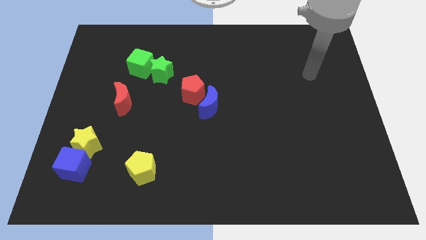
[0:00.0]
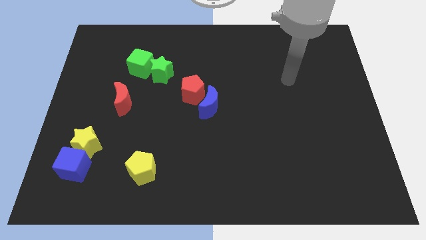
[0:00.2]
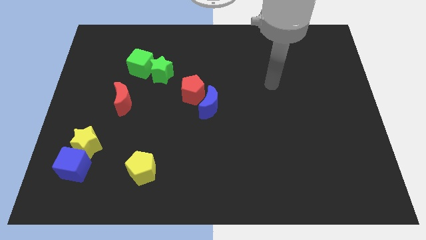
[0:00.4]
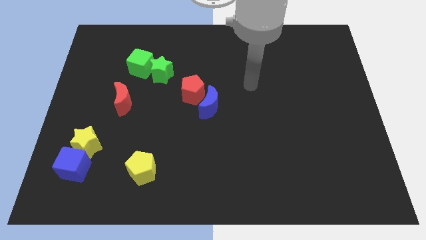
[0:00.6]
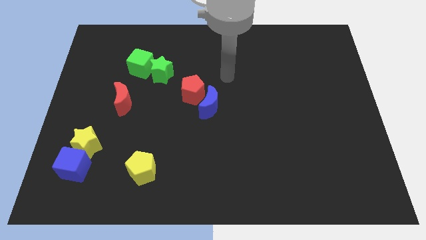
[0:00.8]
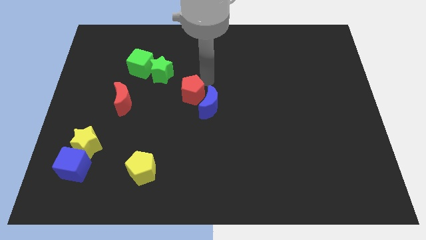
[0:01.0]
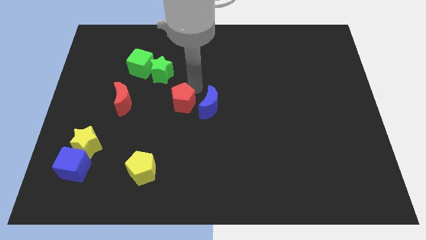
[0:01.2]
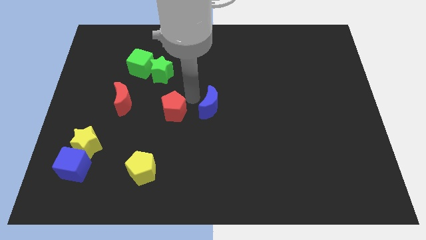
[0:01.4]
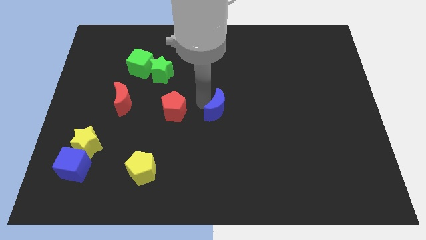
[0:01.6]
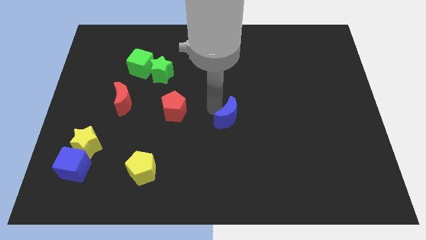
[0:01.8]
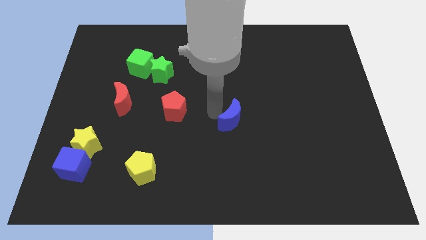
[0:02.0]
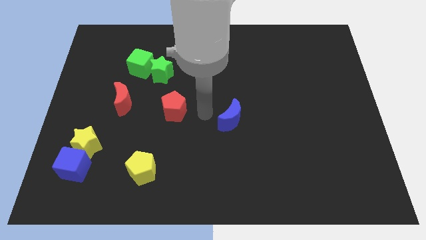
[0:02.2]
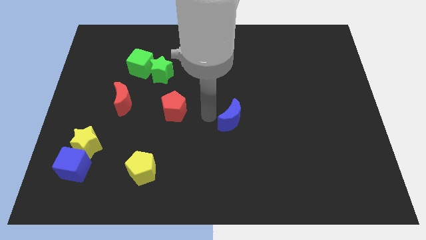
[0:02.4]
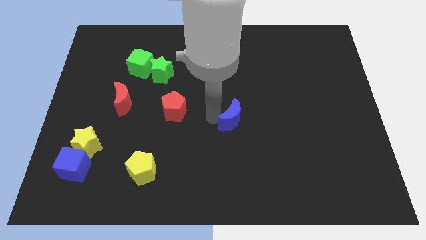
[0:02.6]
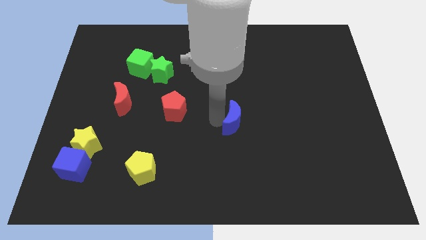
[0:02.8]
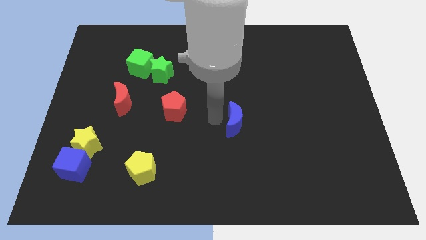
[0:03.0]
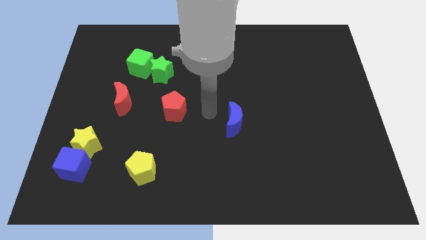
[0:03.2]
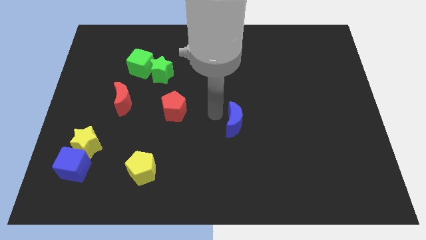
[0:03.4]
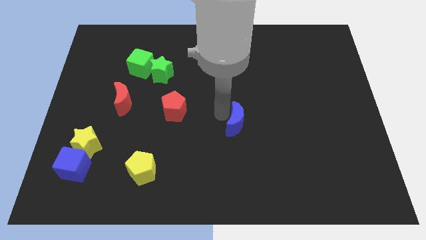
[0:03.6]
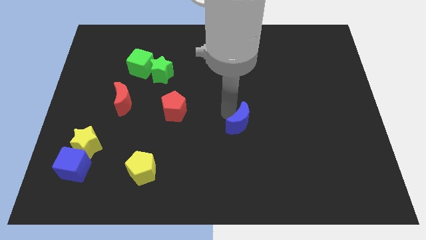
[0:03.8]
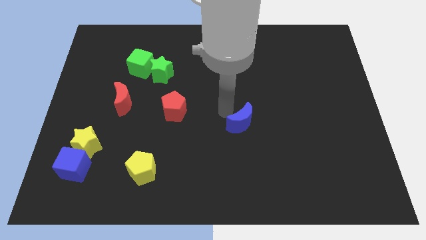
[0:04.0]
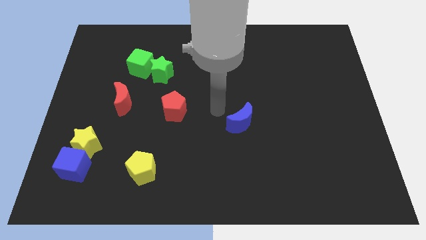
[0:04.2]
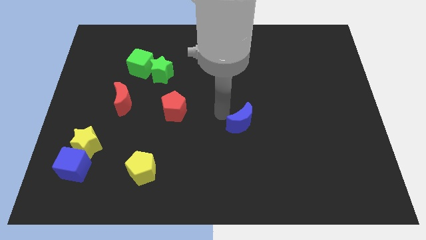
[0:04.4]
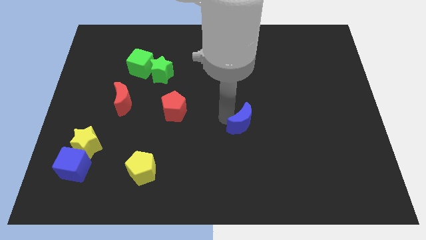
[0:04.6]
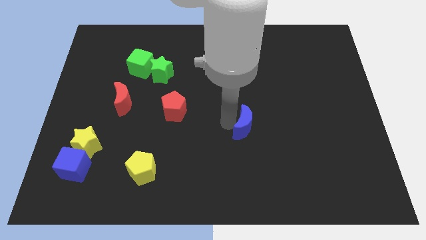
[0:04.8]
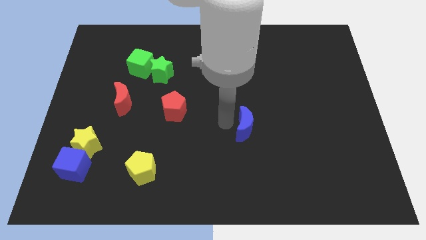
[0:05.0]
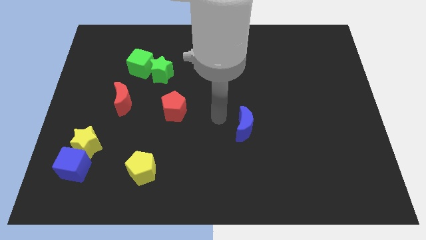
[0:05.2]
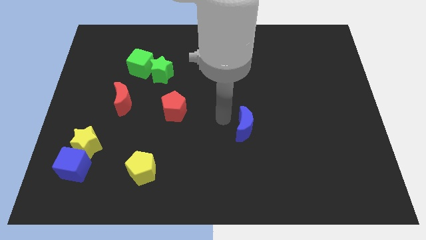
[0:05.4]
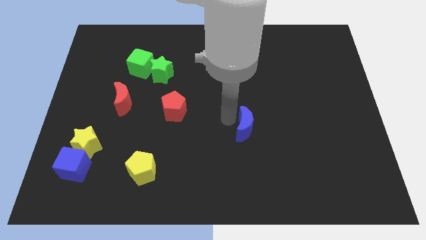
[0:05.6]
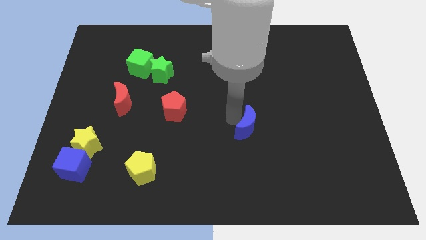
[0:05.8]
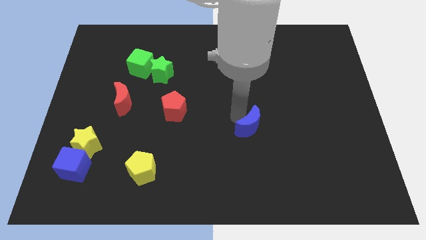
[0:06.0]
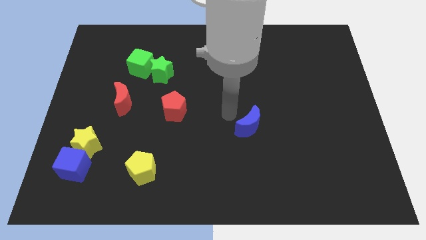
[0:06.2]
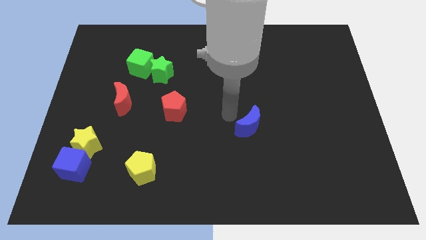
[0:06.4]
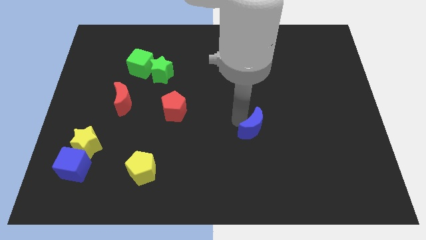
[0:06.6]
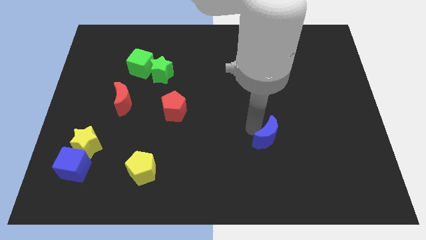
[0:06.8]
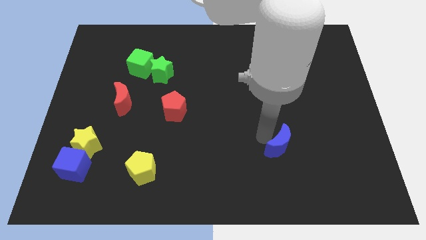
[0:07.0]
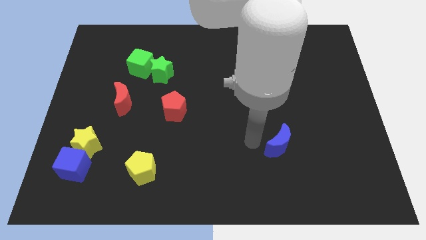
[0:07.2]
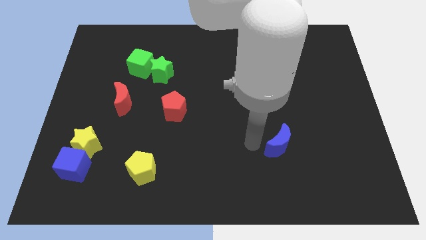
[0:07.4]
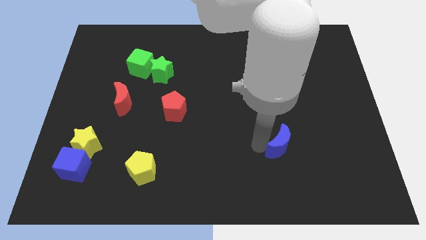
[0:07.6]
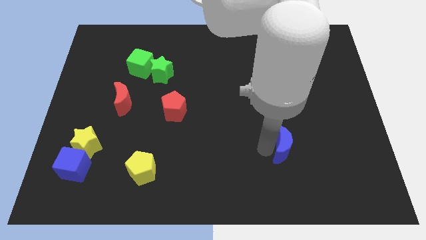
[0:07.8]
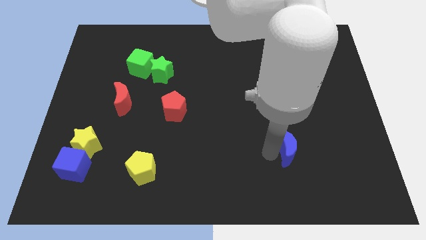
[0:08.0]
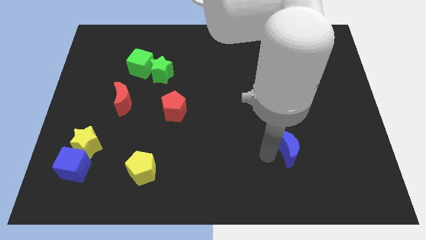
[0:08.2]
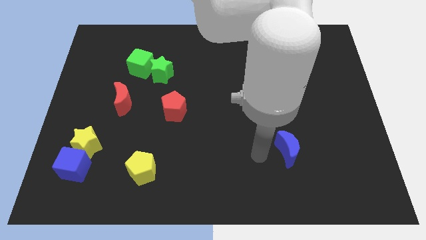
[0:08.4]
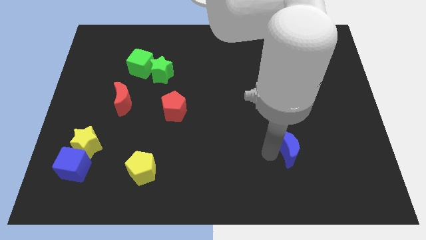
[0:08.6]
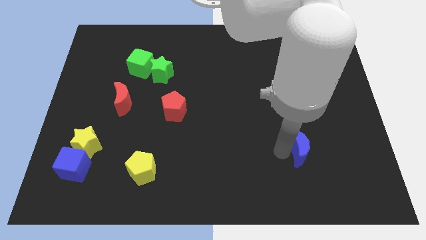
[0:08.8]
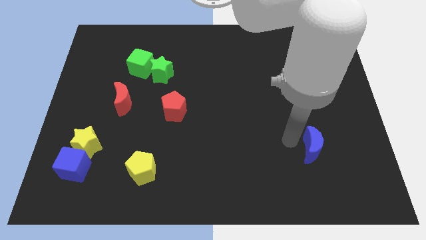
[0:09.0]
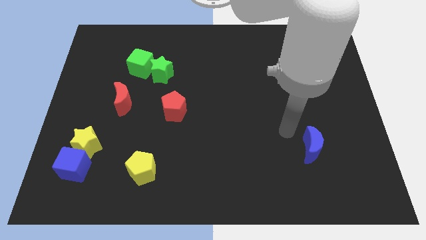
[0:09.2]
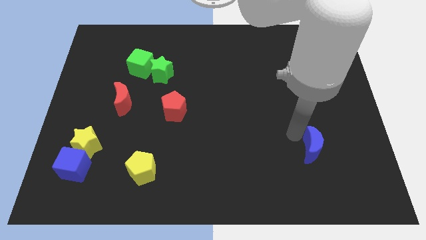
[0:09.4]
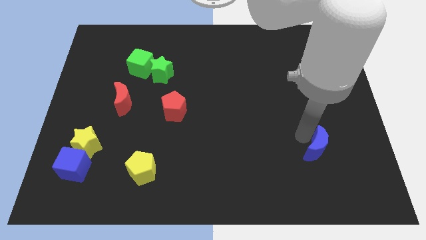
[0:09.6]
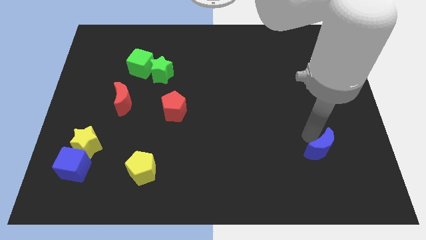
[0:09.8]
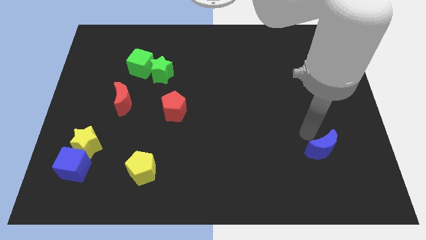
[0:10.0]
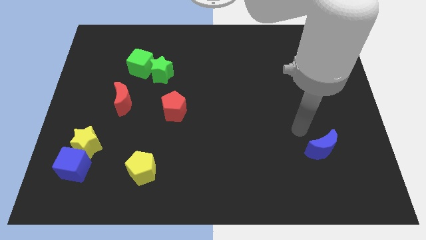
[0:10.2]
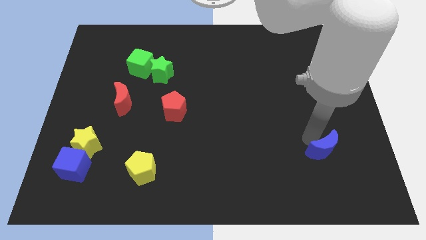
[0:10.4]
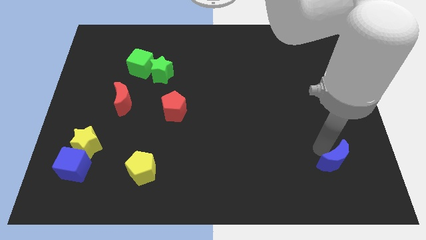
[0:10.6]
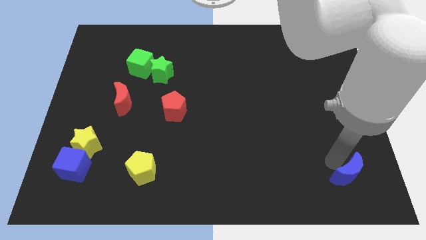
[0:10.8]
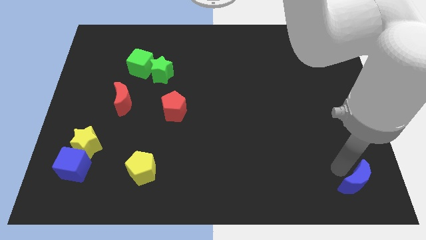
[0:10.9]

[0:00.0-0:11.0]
push the blue moon to the bottom right corner

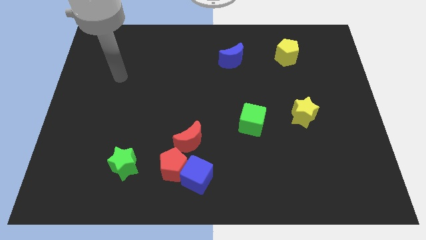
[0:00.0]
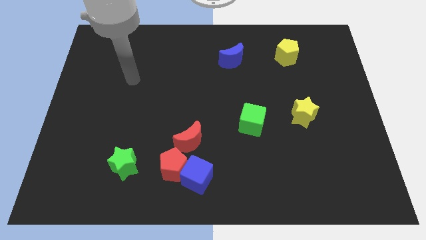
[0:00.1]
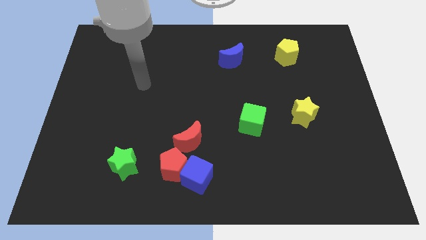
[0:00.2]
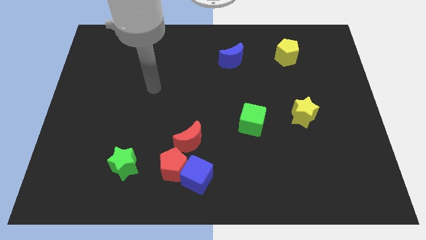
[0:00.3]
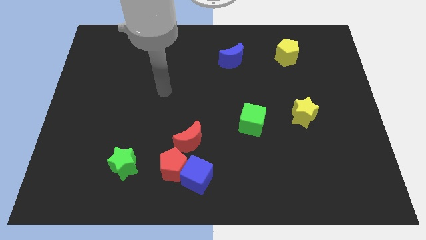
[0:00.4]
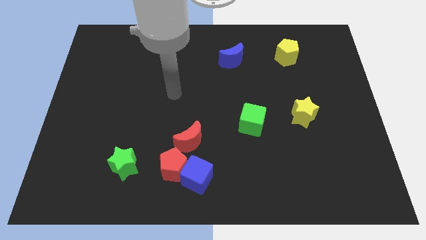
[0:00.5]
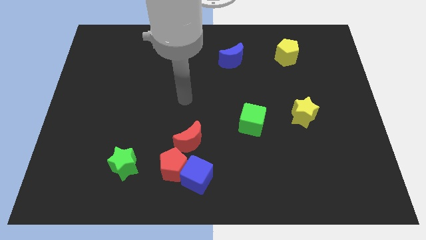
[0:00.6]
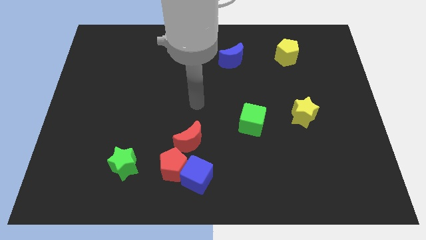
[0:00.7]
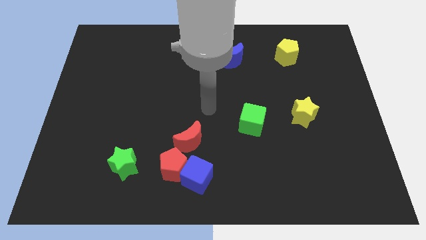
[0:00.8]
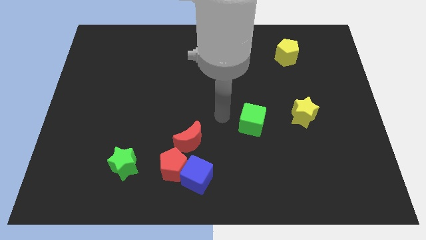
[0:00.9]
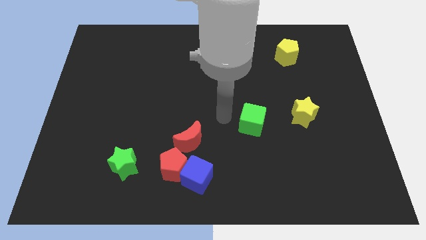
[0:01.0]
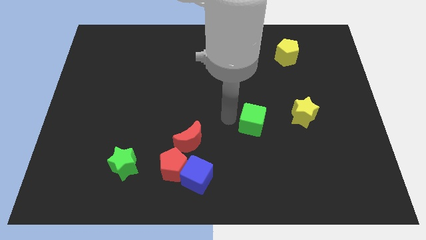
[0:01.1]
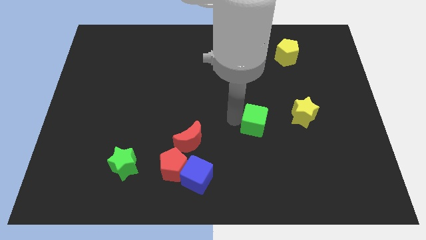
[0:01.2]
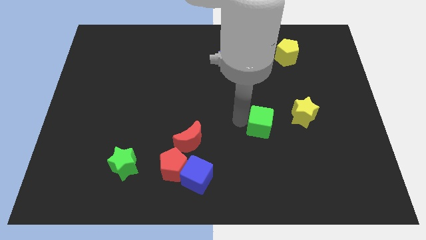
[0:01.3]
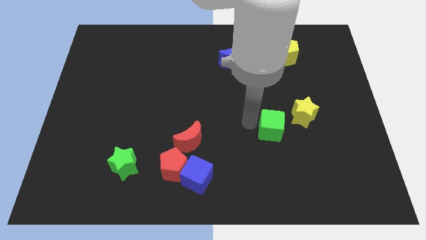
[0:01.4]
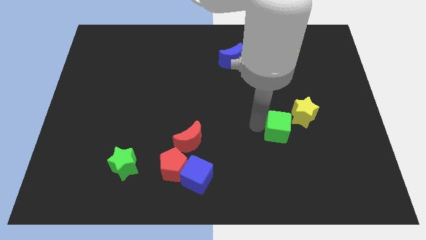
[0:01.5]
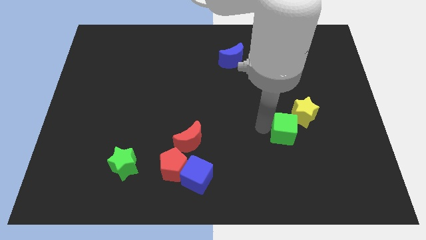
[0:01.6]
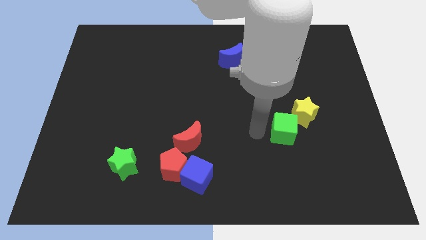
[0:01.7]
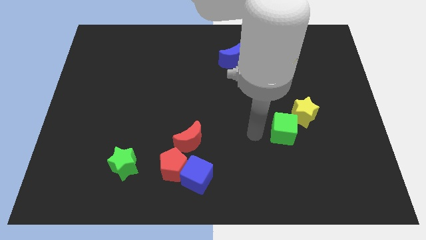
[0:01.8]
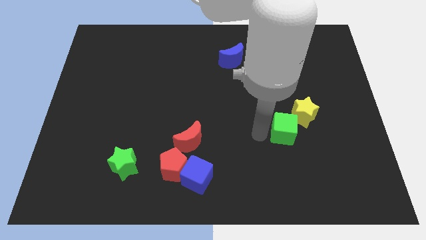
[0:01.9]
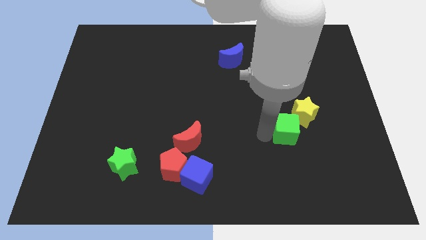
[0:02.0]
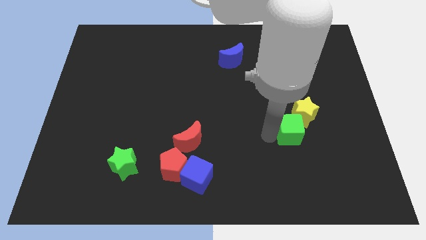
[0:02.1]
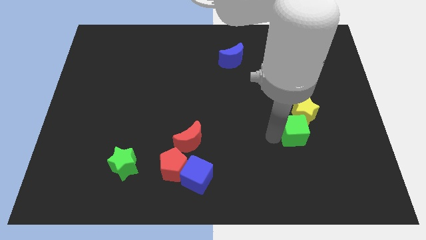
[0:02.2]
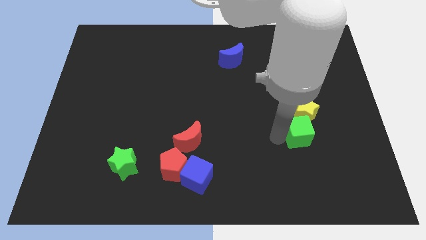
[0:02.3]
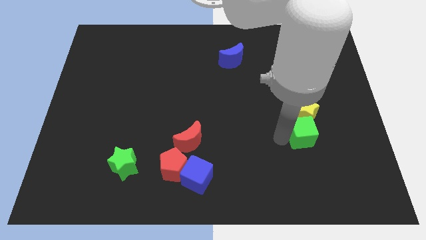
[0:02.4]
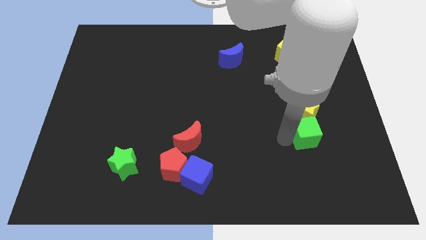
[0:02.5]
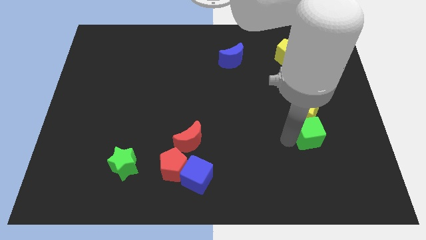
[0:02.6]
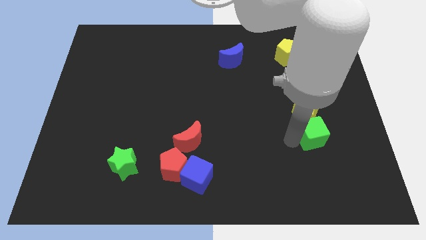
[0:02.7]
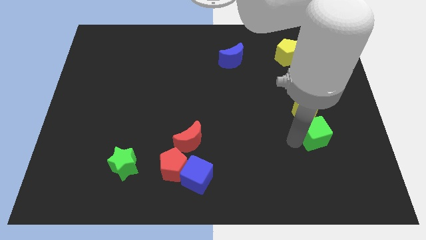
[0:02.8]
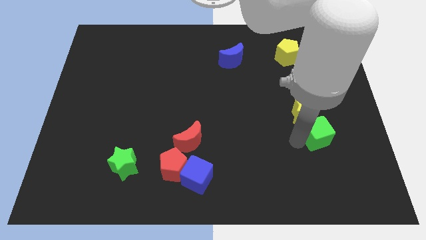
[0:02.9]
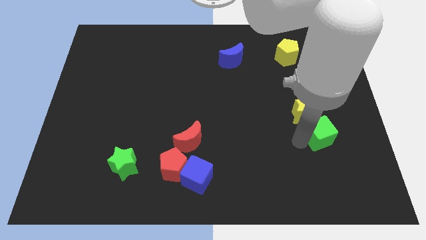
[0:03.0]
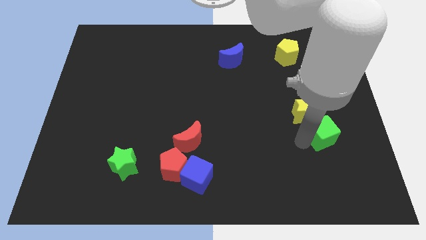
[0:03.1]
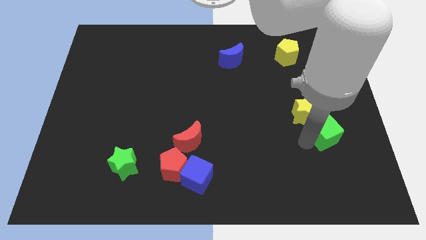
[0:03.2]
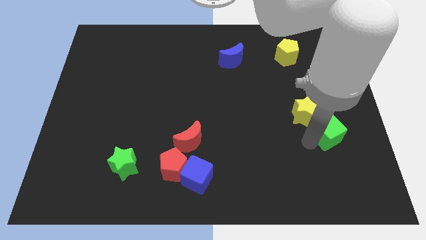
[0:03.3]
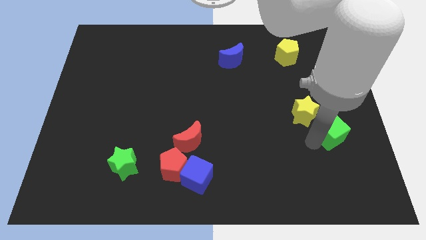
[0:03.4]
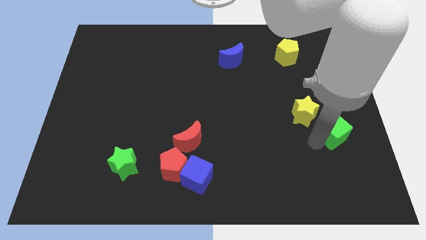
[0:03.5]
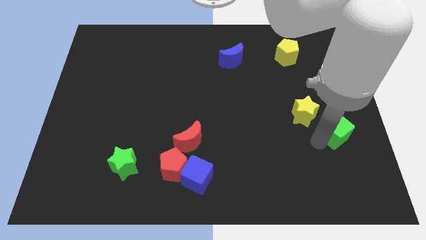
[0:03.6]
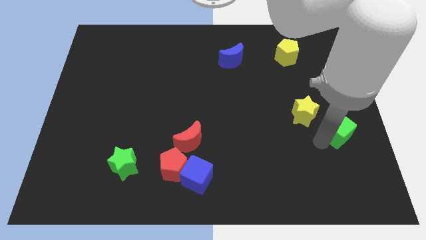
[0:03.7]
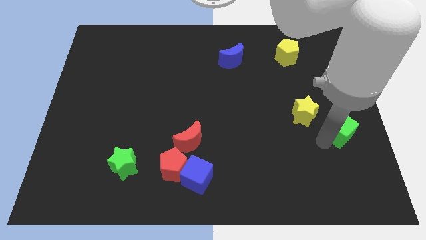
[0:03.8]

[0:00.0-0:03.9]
slide the green cube to the right side
